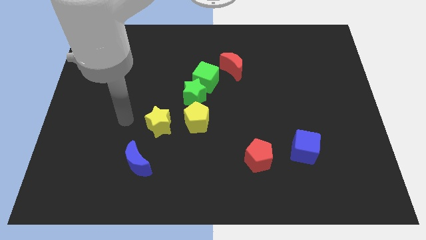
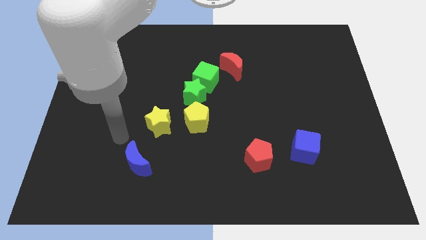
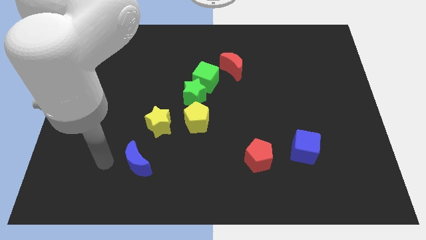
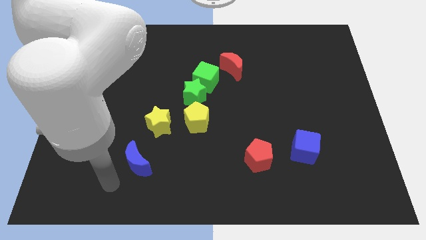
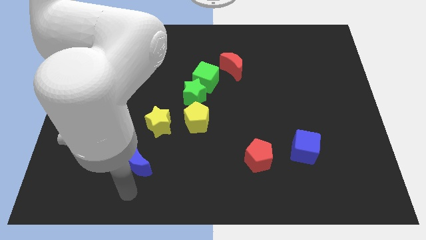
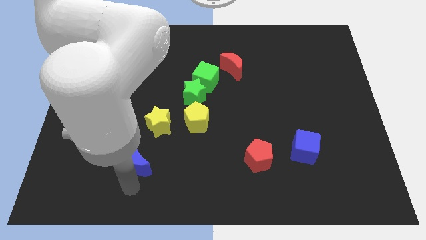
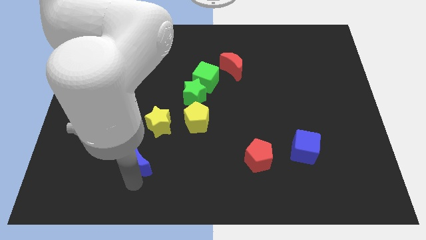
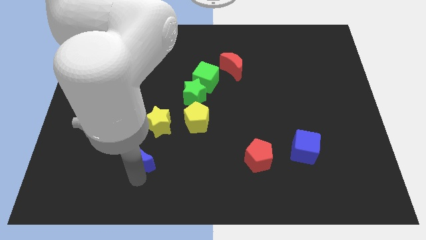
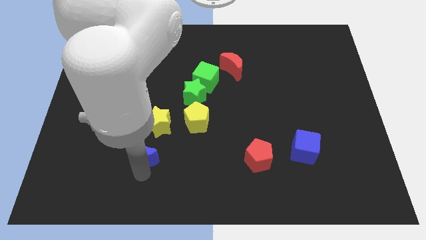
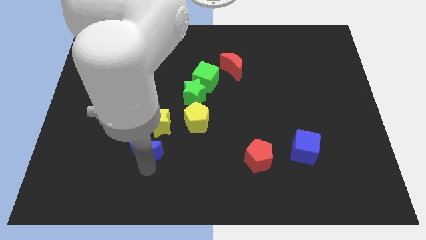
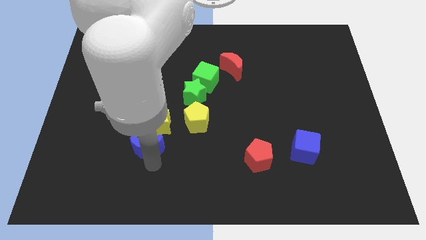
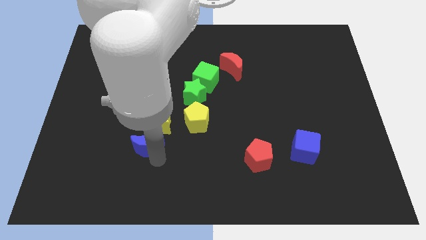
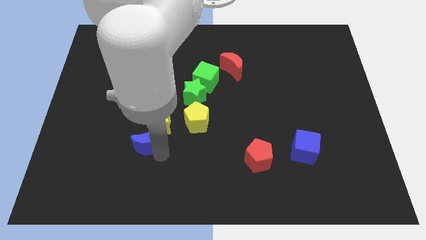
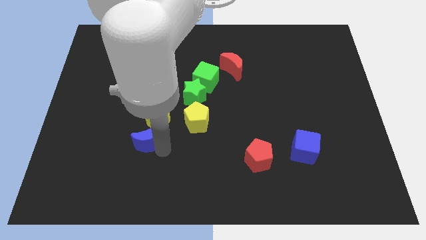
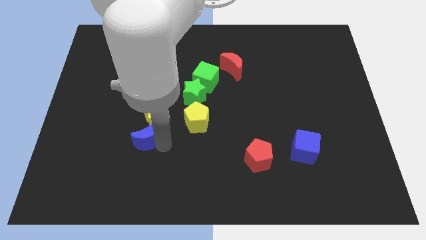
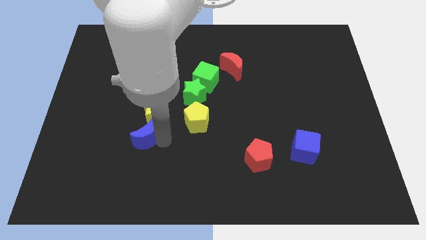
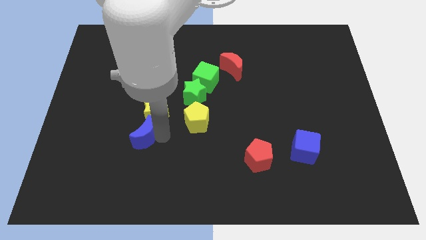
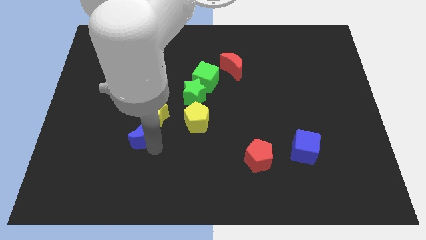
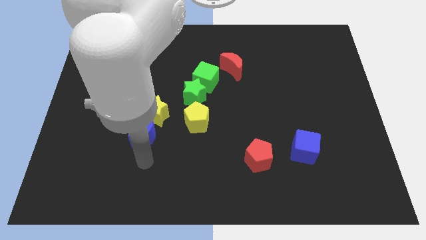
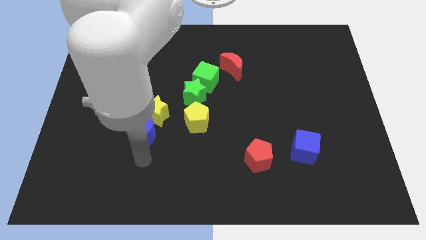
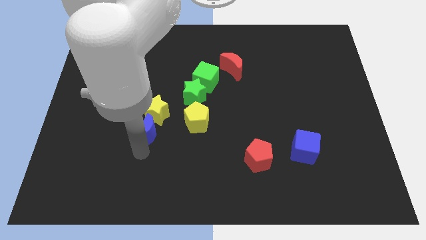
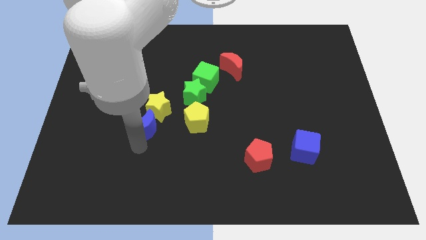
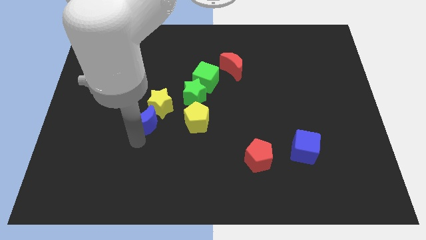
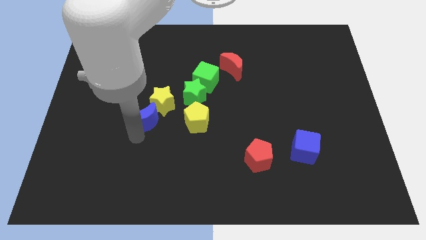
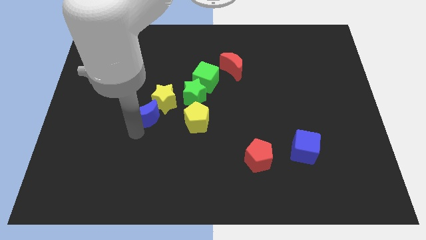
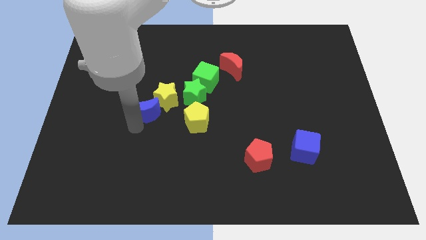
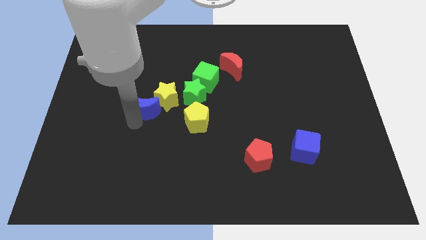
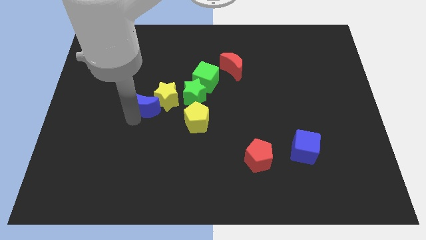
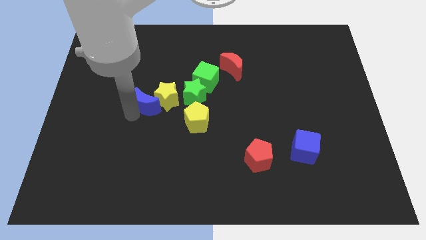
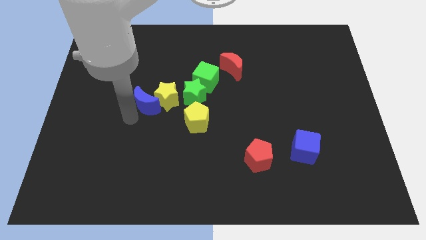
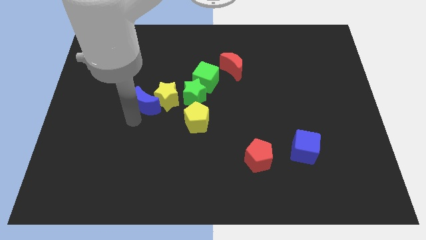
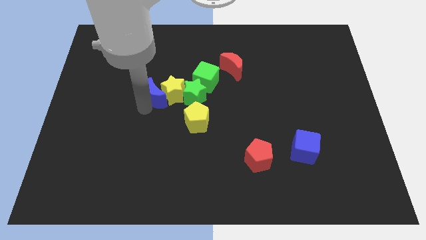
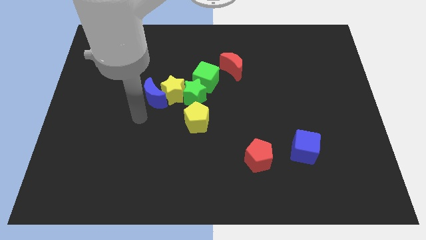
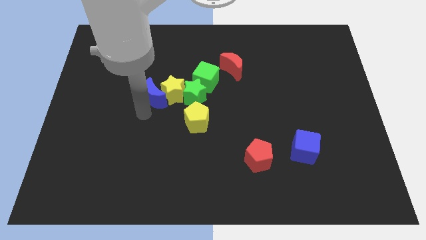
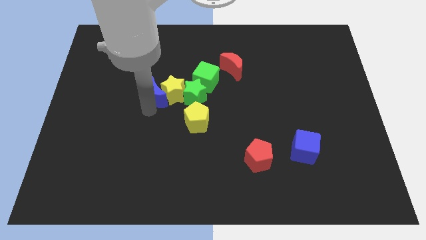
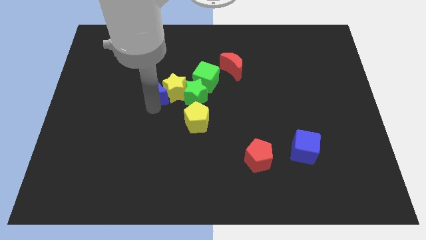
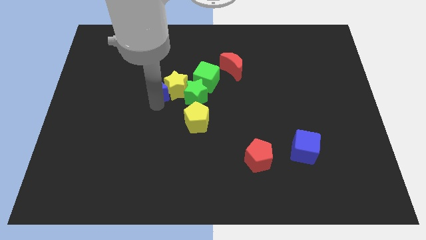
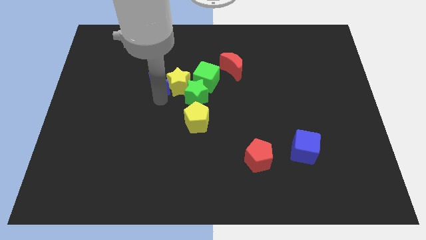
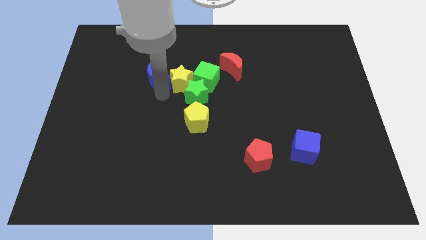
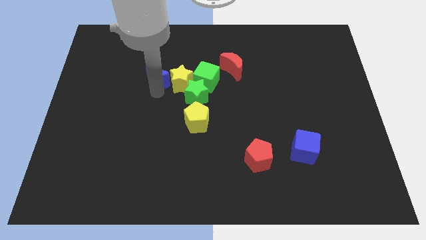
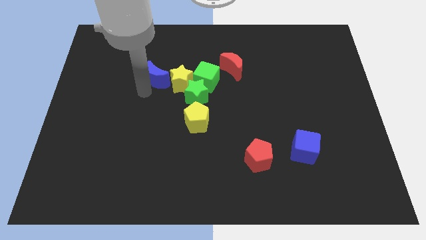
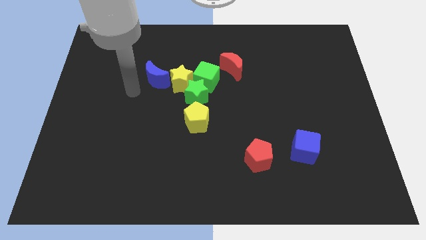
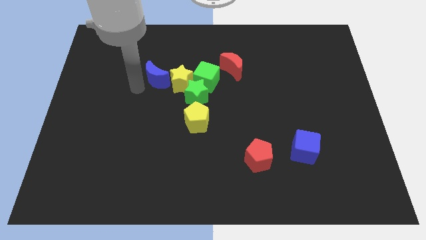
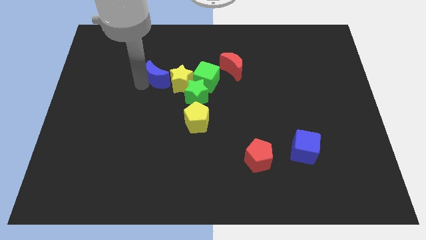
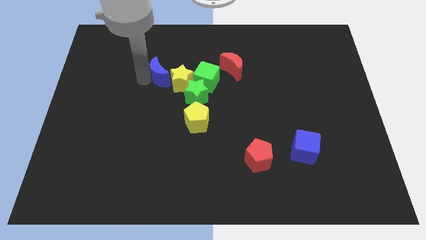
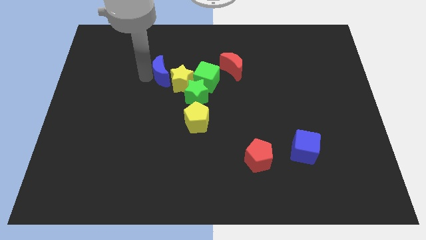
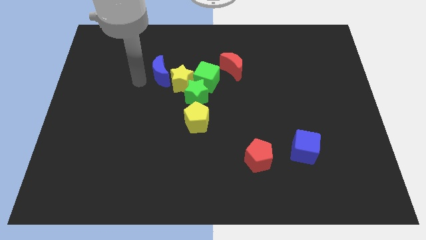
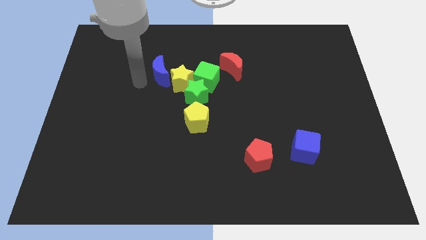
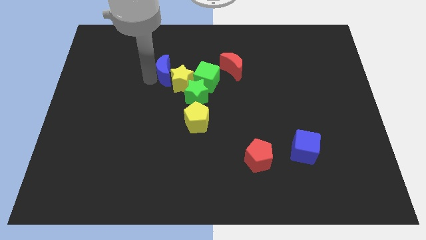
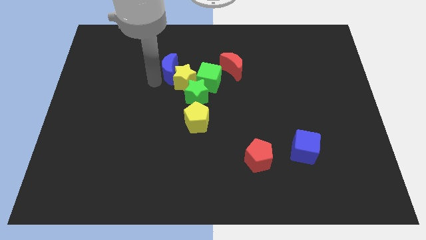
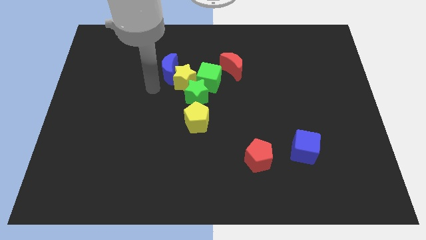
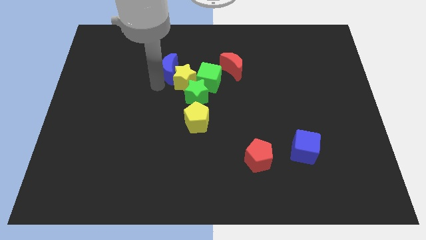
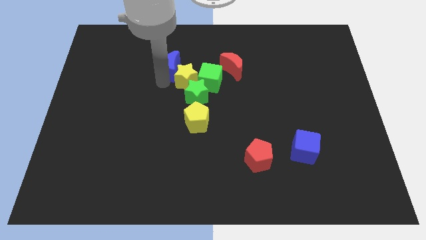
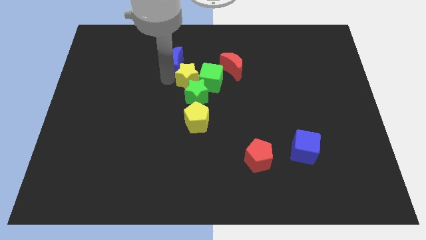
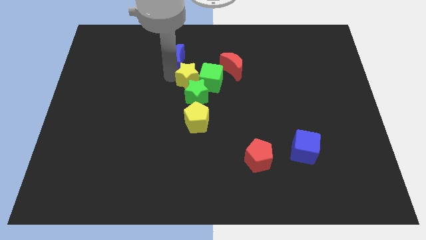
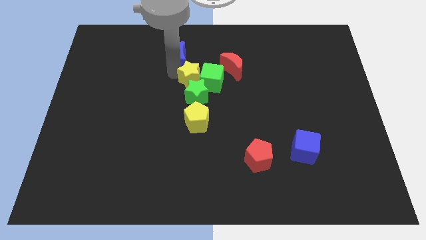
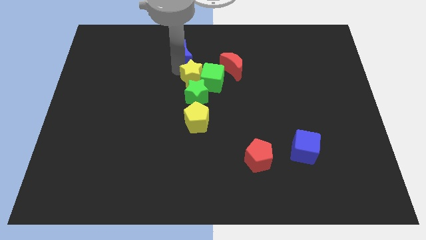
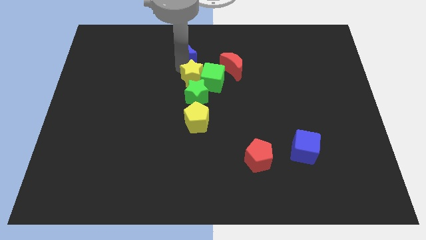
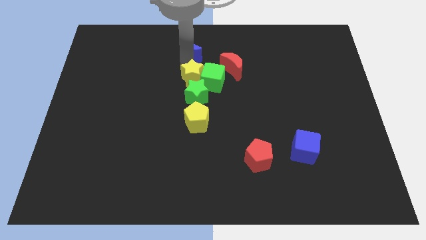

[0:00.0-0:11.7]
slide the blue moon to the top side
